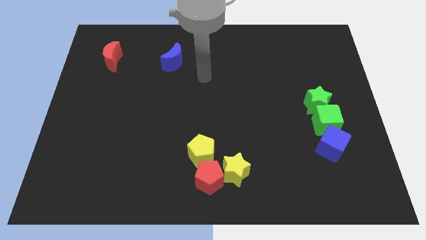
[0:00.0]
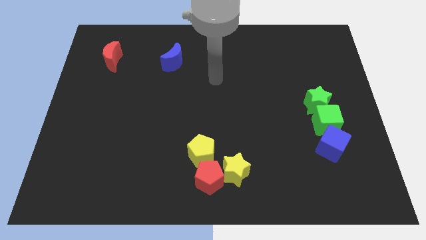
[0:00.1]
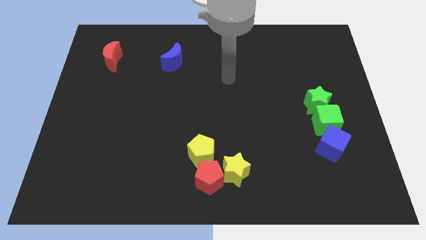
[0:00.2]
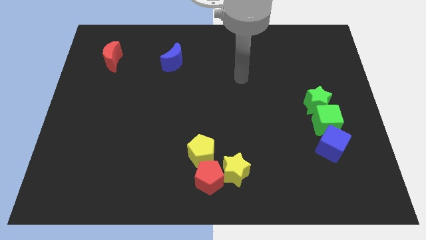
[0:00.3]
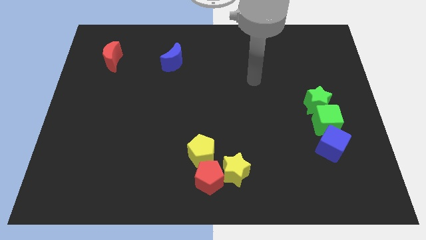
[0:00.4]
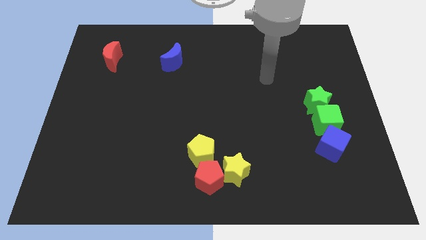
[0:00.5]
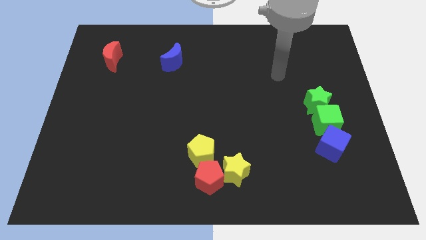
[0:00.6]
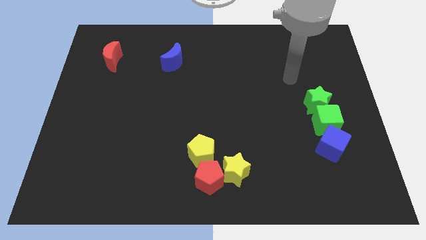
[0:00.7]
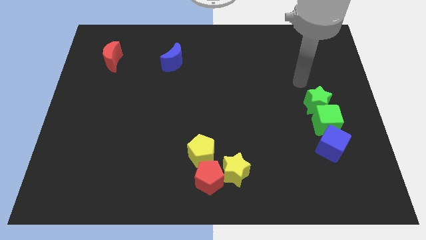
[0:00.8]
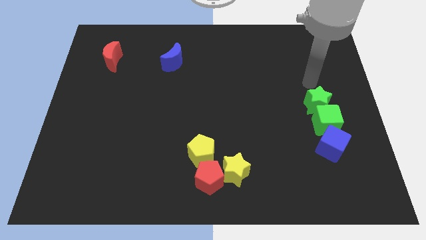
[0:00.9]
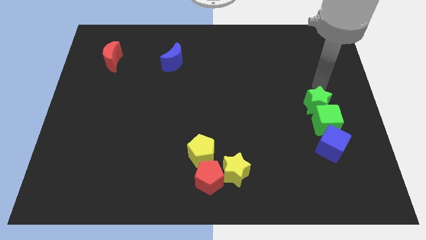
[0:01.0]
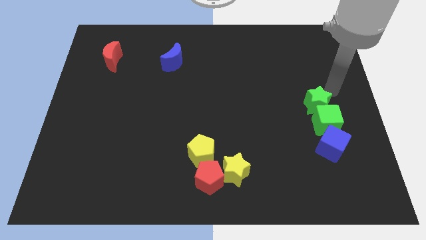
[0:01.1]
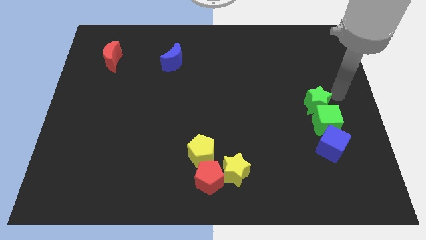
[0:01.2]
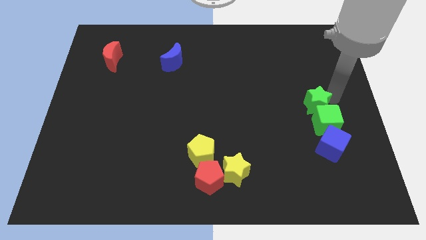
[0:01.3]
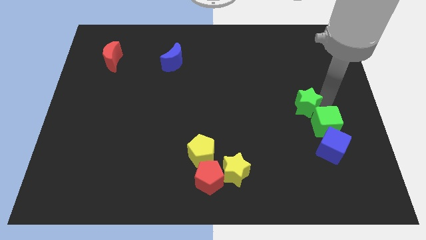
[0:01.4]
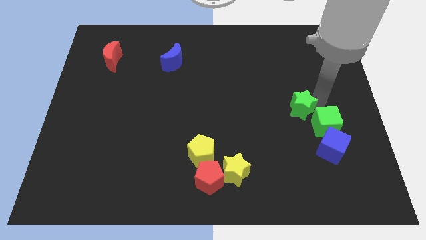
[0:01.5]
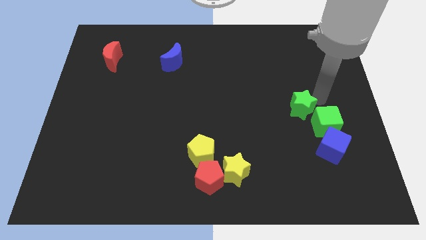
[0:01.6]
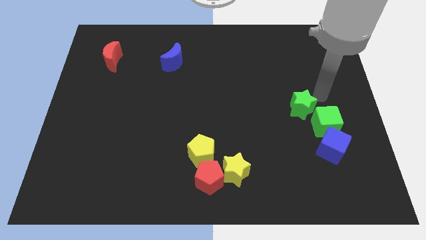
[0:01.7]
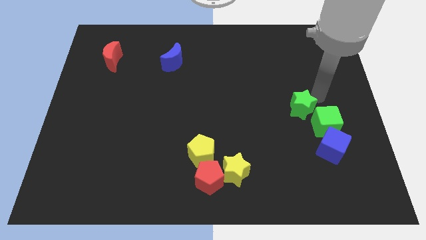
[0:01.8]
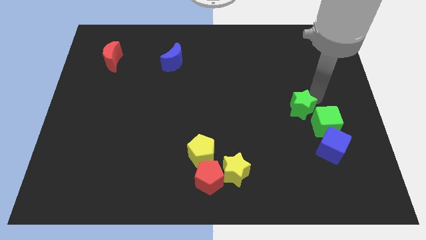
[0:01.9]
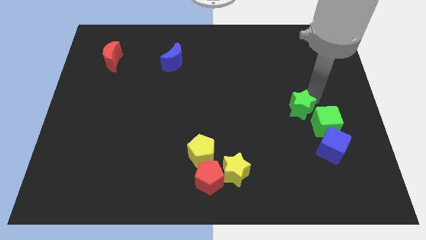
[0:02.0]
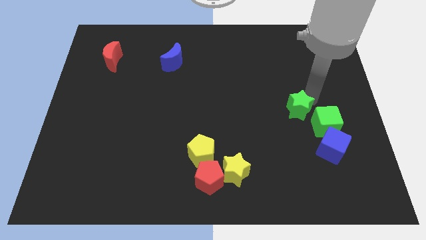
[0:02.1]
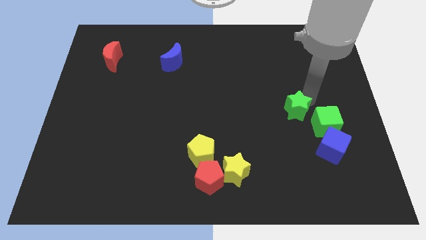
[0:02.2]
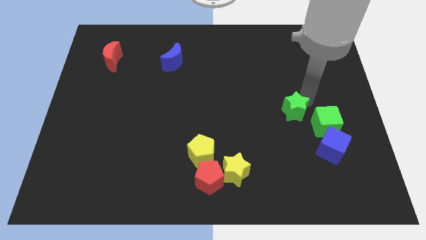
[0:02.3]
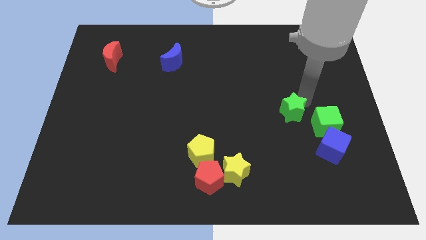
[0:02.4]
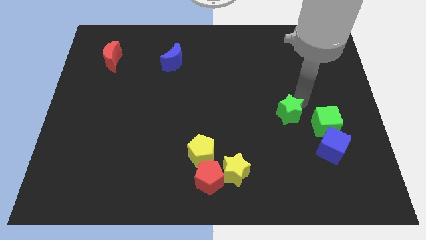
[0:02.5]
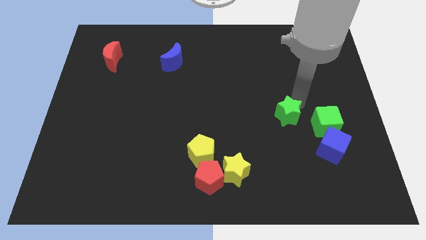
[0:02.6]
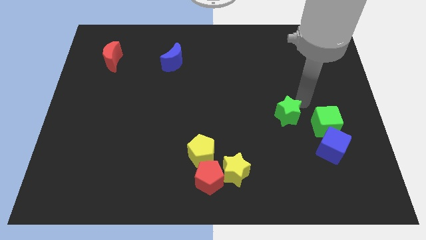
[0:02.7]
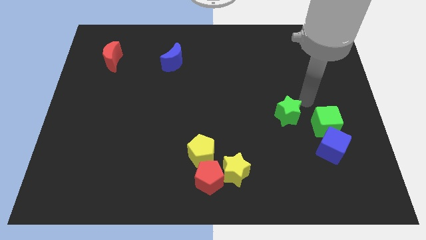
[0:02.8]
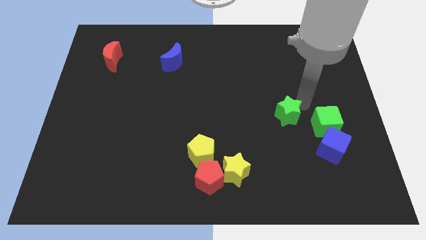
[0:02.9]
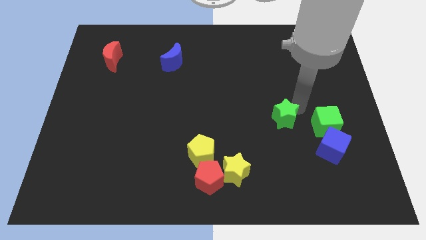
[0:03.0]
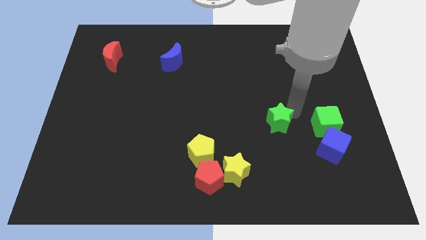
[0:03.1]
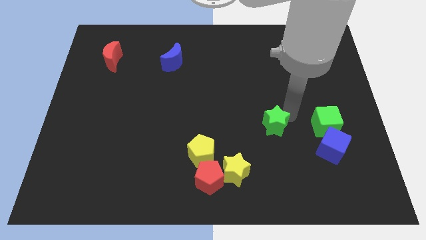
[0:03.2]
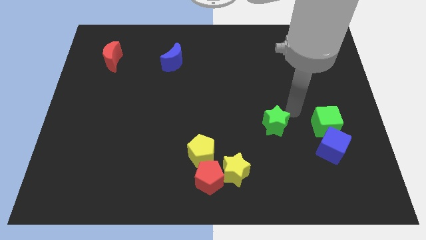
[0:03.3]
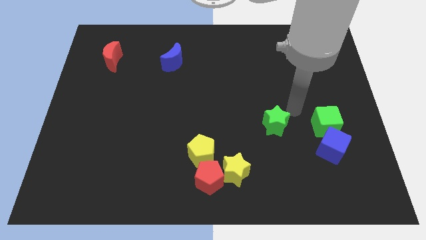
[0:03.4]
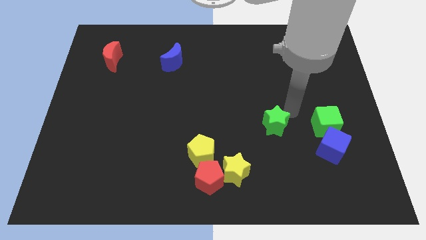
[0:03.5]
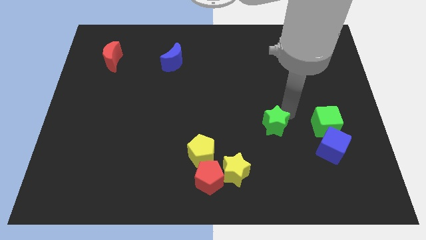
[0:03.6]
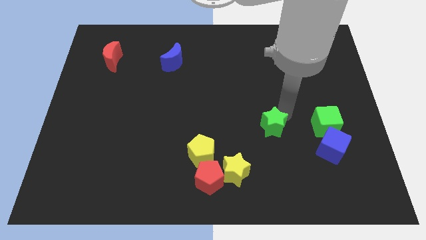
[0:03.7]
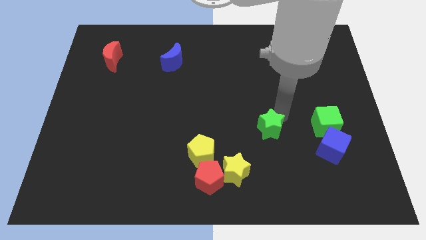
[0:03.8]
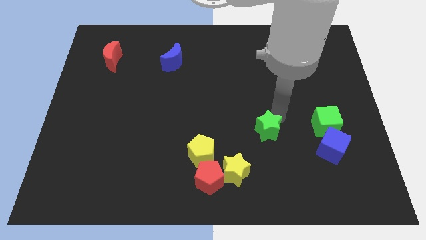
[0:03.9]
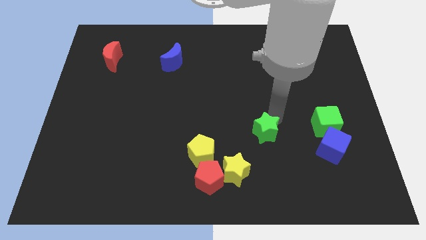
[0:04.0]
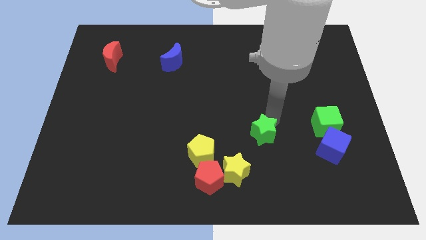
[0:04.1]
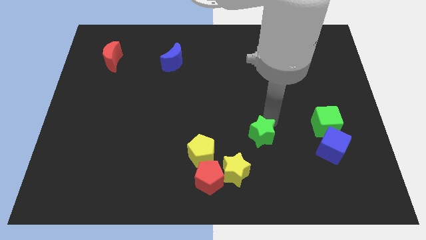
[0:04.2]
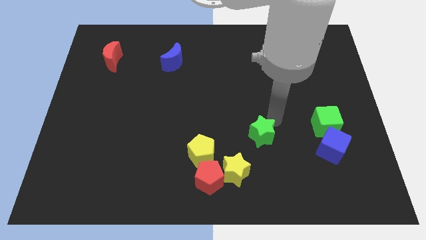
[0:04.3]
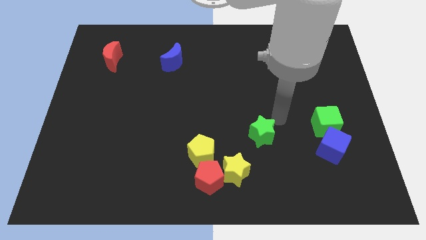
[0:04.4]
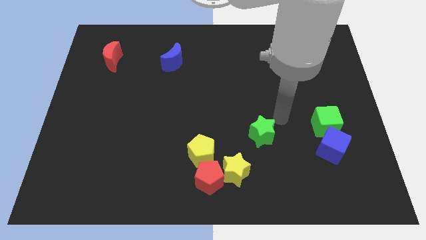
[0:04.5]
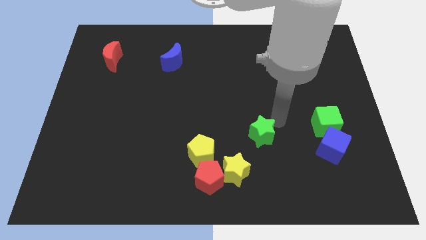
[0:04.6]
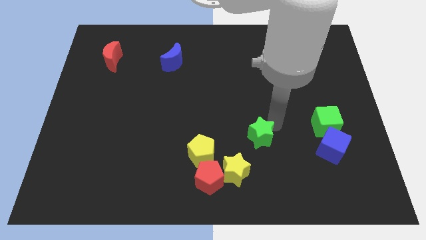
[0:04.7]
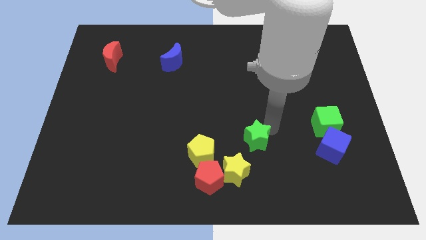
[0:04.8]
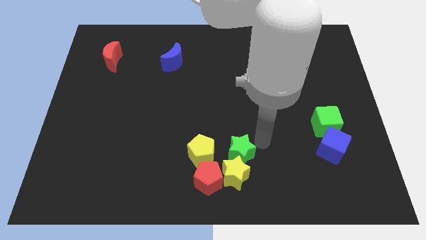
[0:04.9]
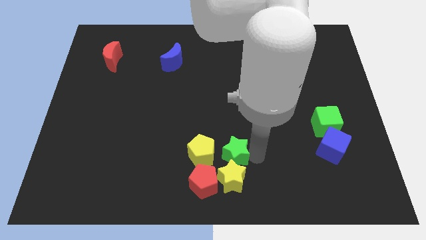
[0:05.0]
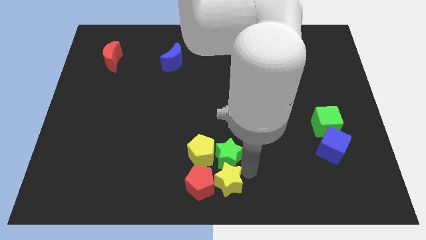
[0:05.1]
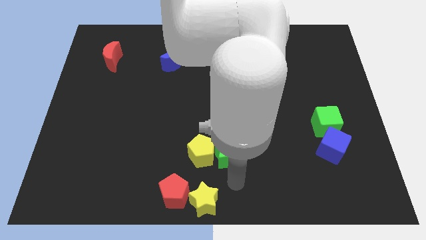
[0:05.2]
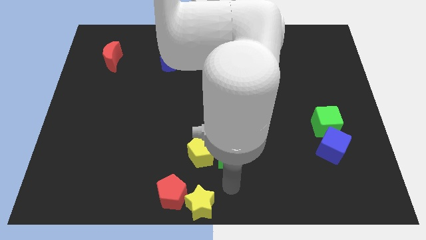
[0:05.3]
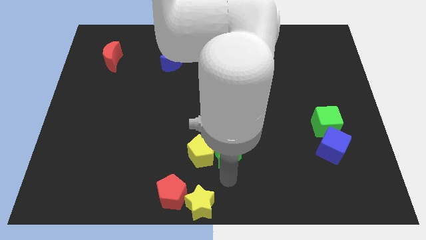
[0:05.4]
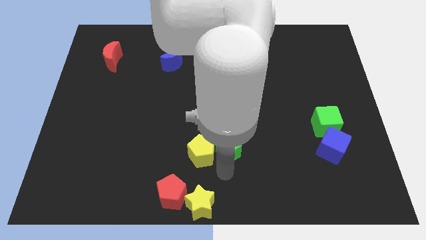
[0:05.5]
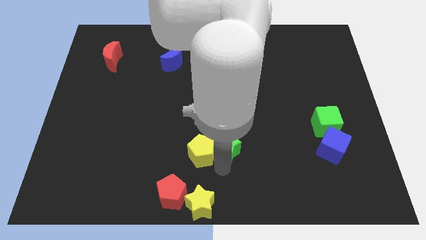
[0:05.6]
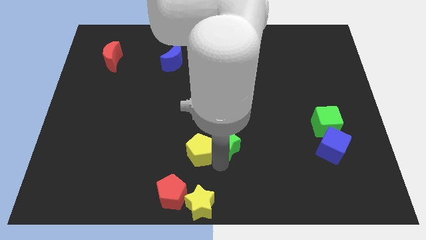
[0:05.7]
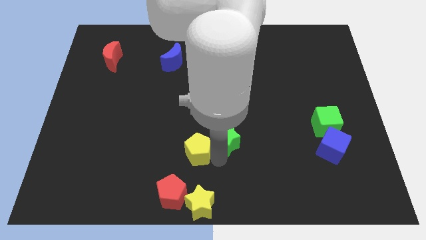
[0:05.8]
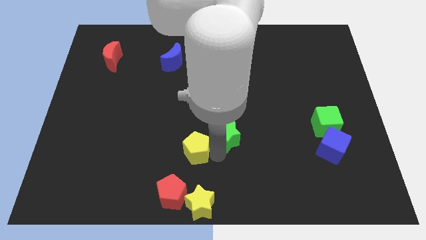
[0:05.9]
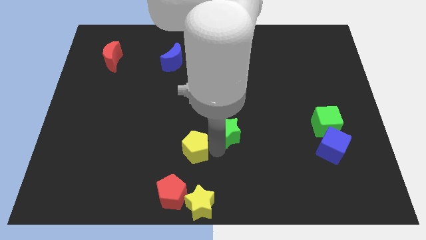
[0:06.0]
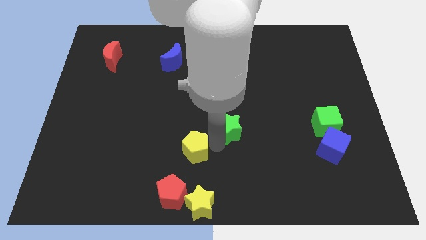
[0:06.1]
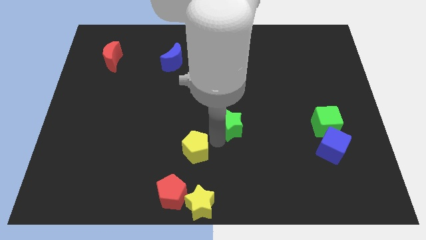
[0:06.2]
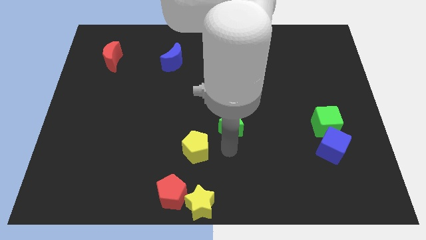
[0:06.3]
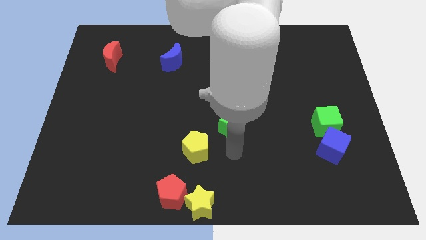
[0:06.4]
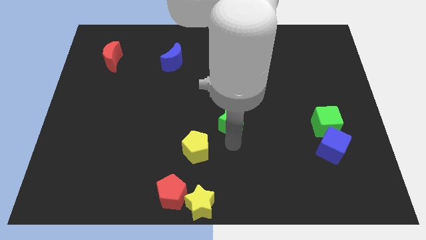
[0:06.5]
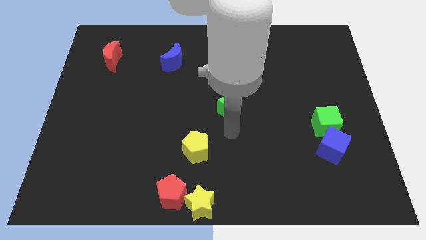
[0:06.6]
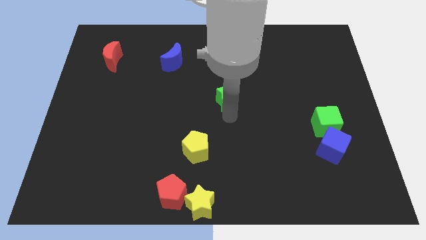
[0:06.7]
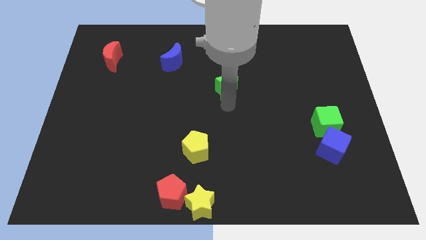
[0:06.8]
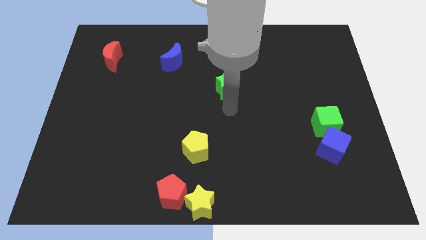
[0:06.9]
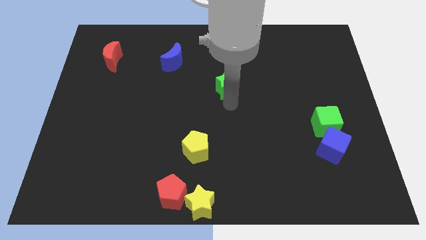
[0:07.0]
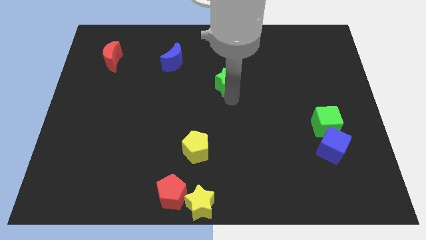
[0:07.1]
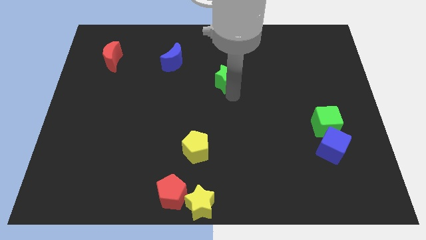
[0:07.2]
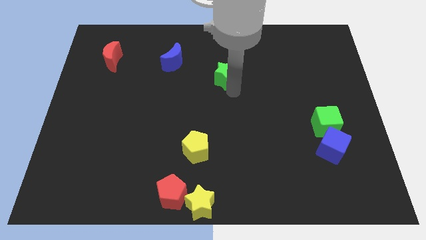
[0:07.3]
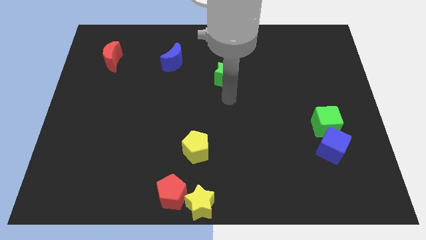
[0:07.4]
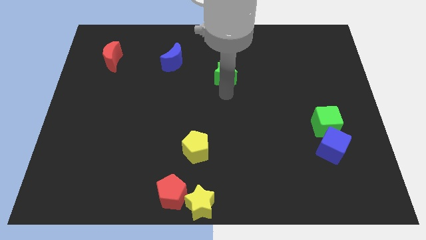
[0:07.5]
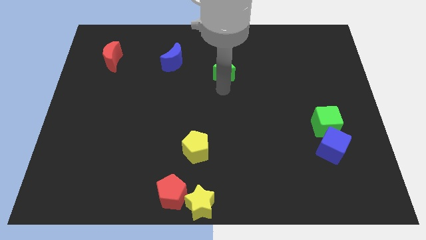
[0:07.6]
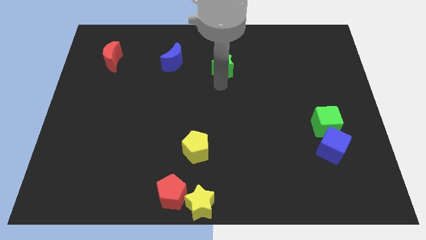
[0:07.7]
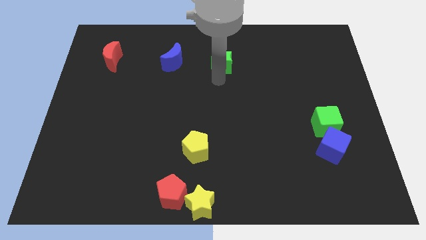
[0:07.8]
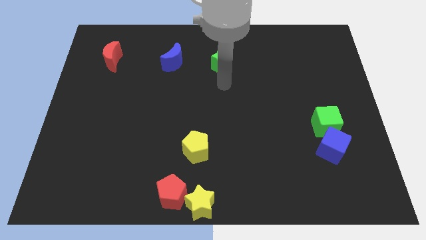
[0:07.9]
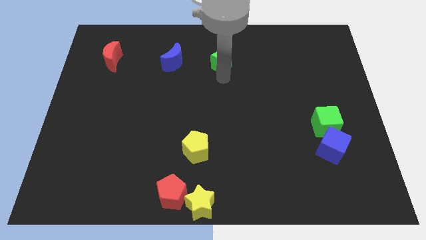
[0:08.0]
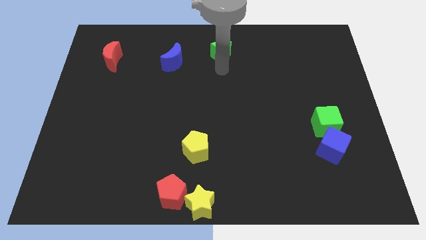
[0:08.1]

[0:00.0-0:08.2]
move the green star to the top side
